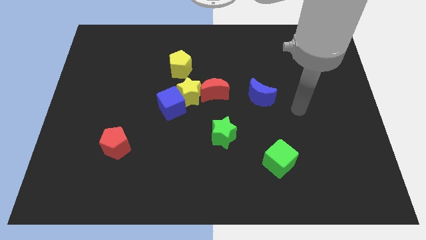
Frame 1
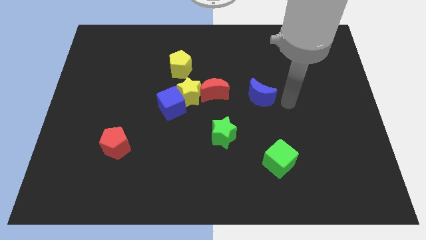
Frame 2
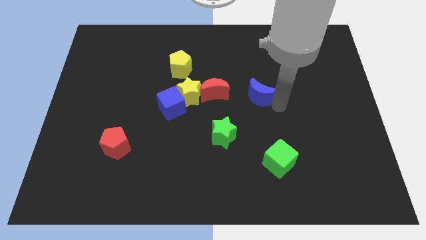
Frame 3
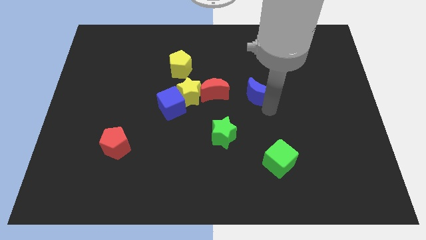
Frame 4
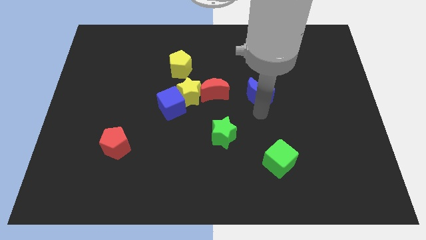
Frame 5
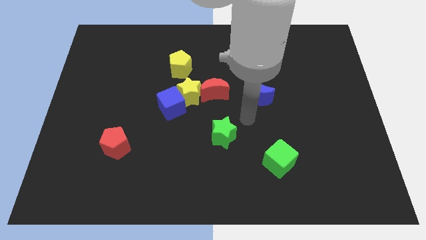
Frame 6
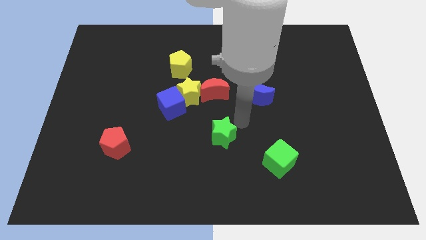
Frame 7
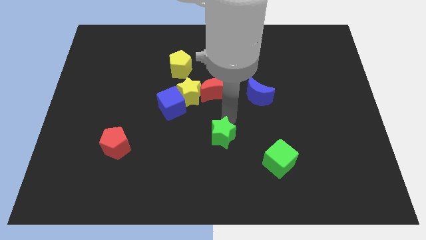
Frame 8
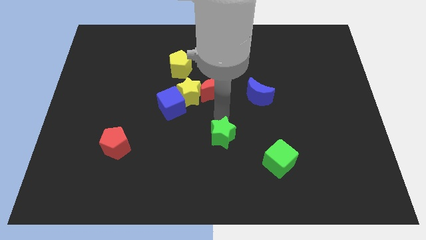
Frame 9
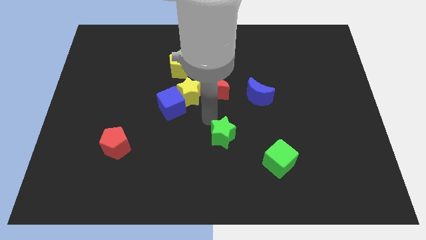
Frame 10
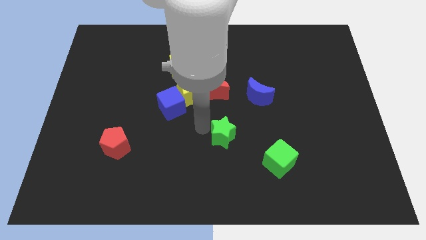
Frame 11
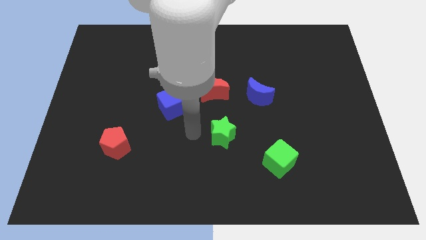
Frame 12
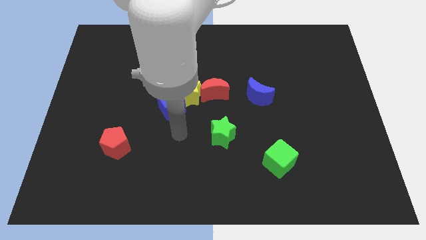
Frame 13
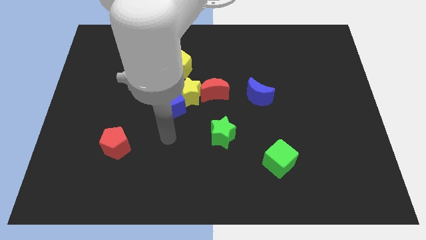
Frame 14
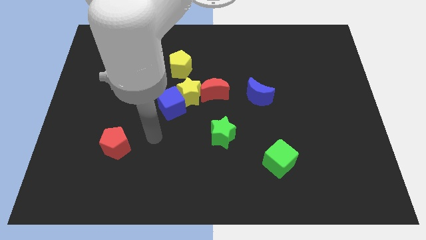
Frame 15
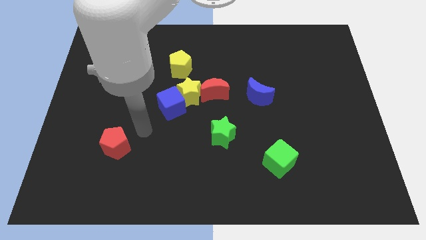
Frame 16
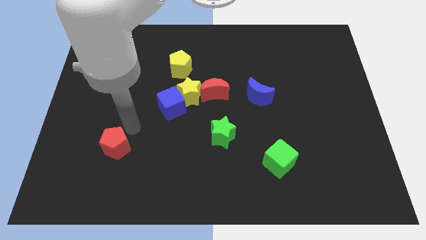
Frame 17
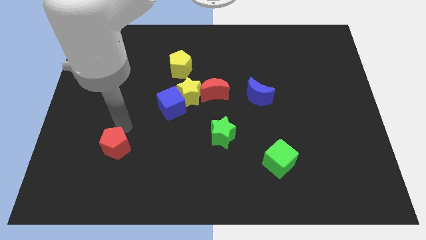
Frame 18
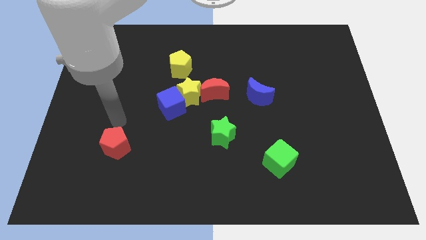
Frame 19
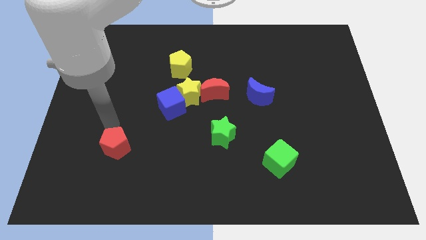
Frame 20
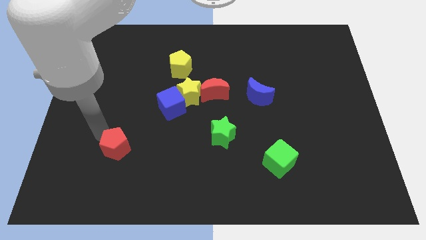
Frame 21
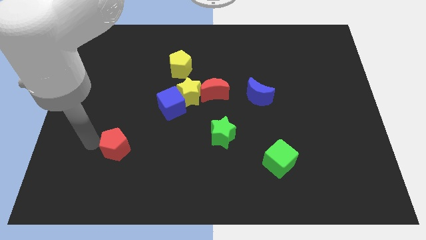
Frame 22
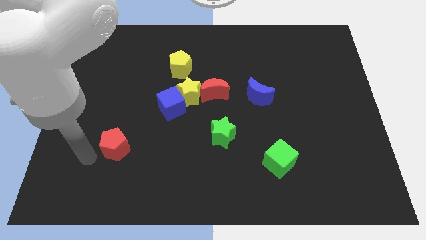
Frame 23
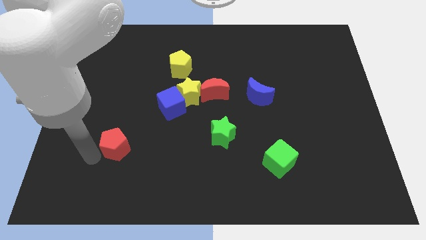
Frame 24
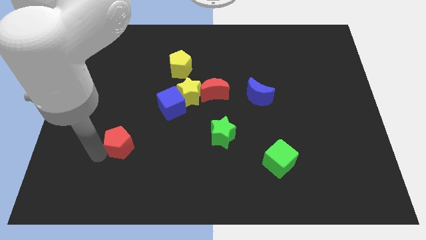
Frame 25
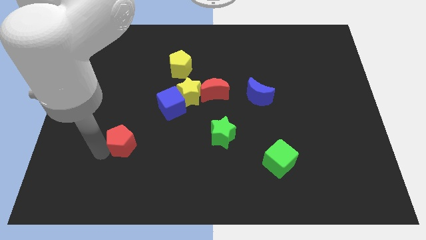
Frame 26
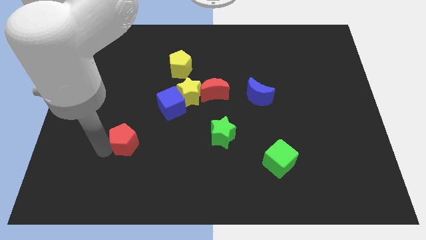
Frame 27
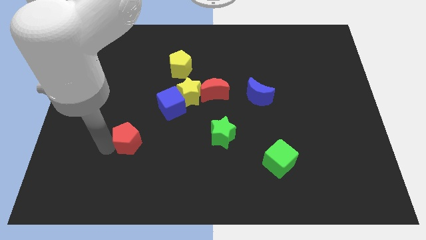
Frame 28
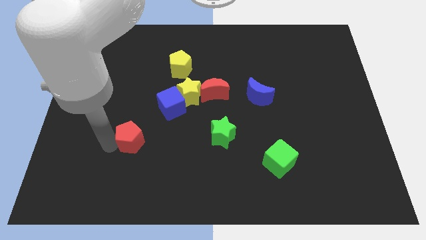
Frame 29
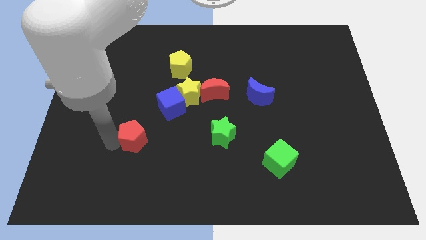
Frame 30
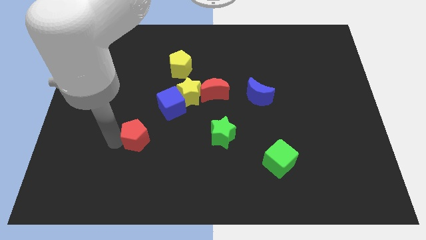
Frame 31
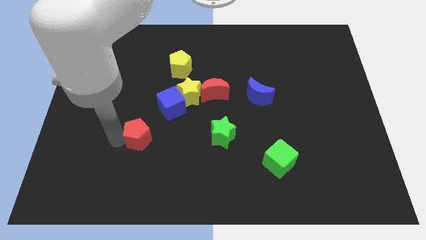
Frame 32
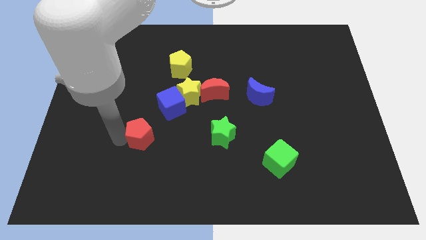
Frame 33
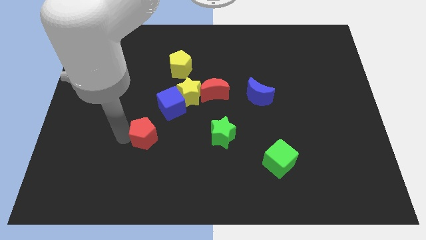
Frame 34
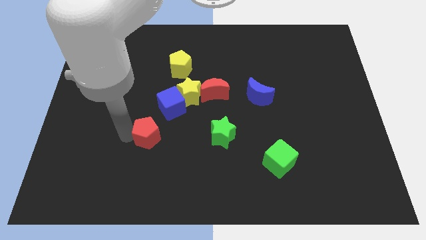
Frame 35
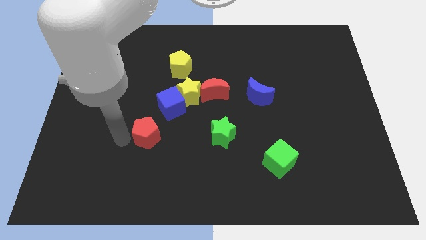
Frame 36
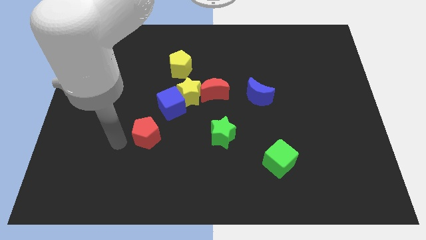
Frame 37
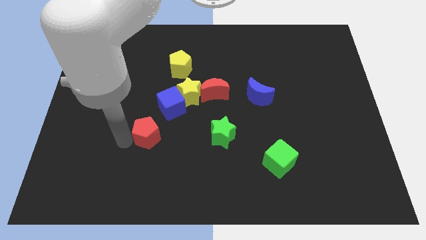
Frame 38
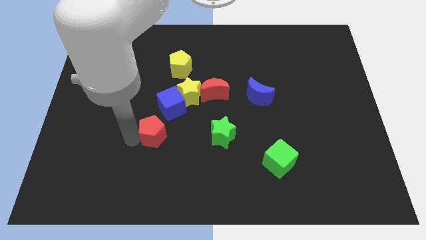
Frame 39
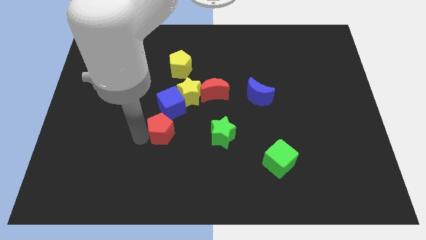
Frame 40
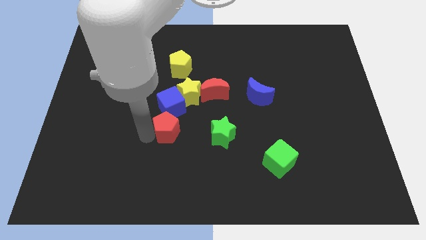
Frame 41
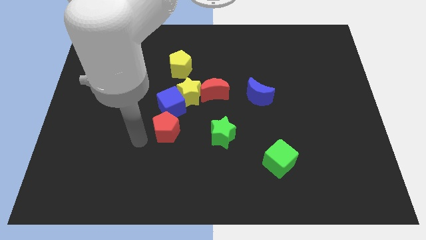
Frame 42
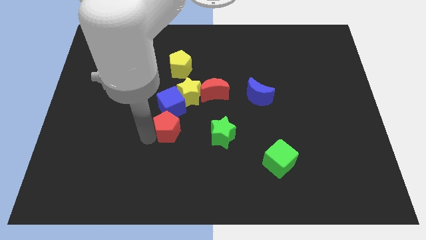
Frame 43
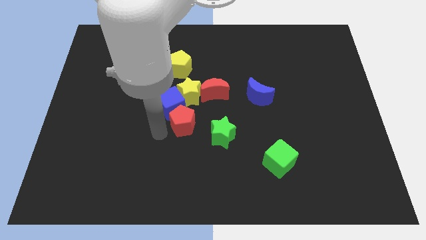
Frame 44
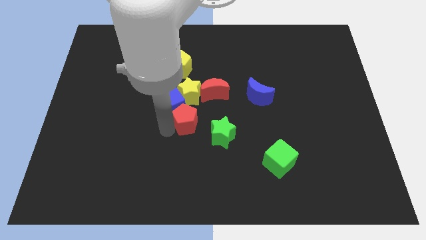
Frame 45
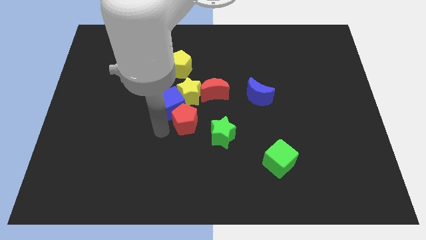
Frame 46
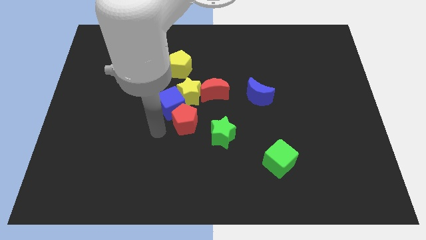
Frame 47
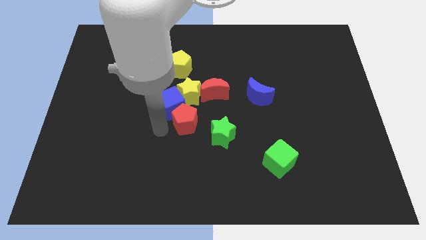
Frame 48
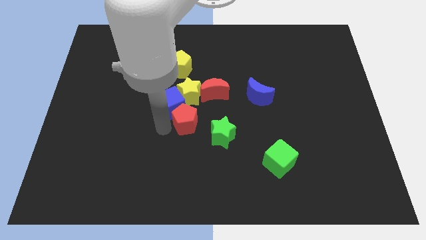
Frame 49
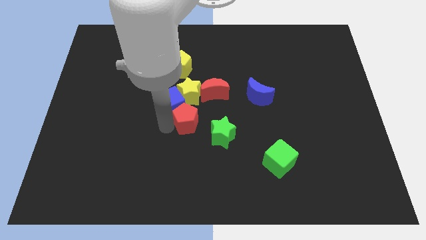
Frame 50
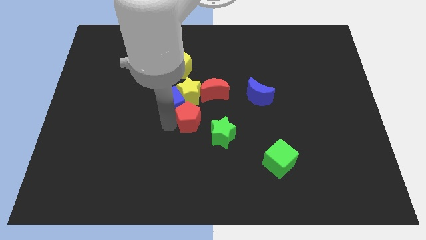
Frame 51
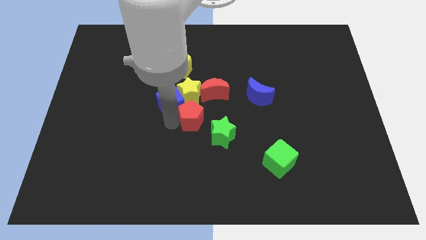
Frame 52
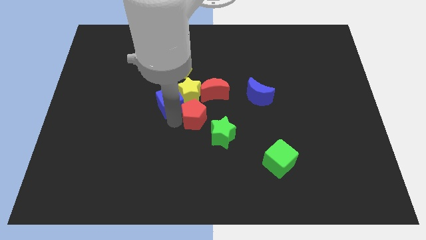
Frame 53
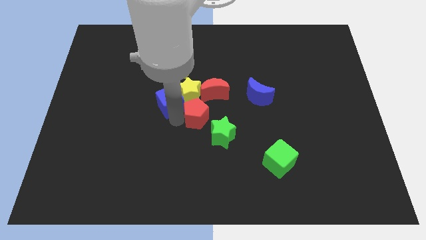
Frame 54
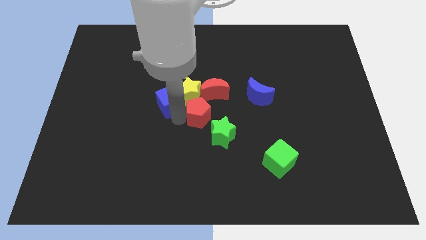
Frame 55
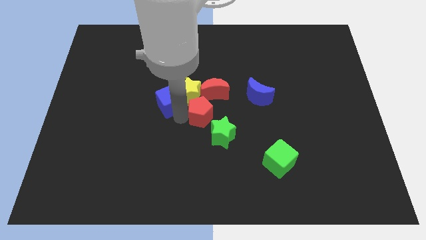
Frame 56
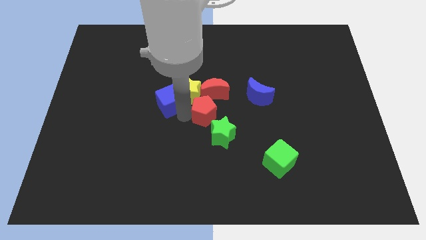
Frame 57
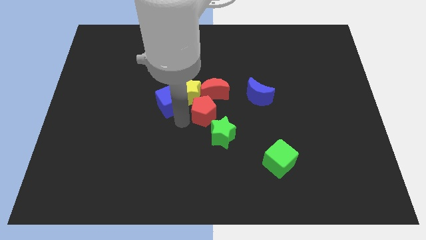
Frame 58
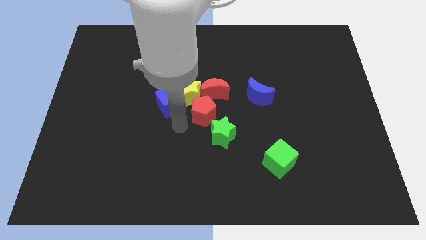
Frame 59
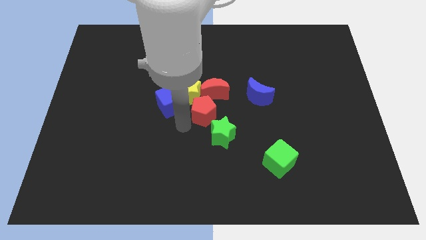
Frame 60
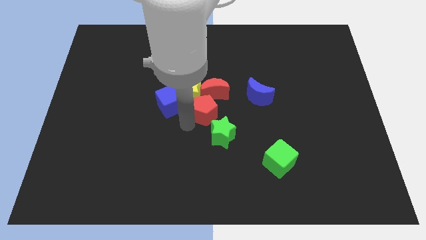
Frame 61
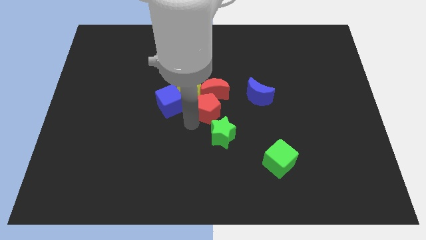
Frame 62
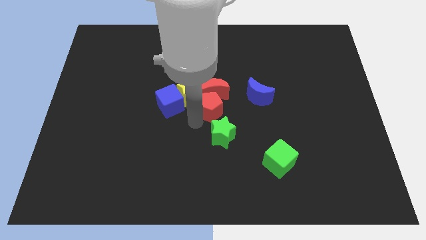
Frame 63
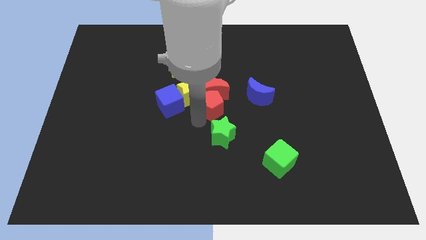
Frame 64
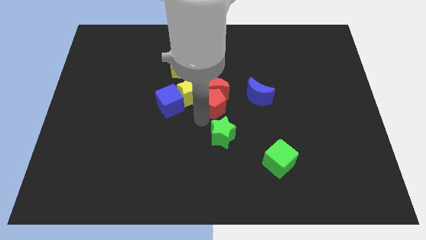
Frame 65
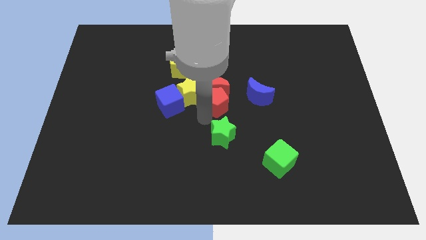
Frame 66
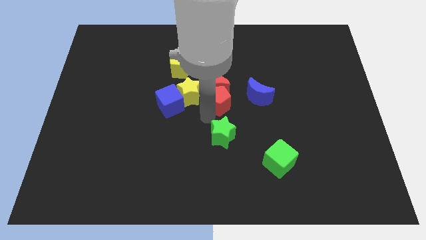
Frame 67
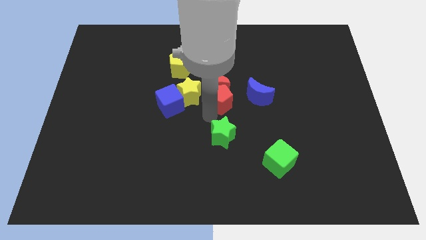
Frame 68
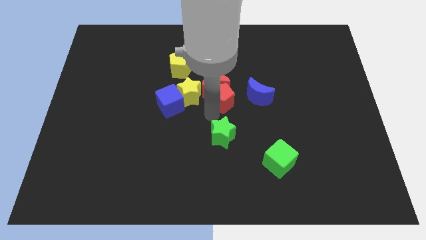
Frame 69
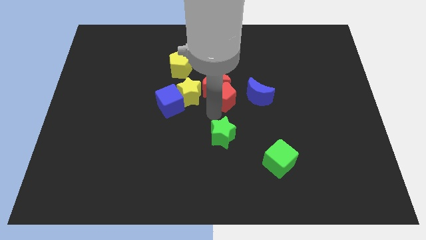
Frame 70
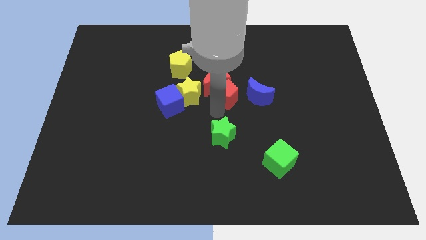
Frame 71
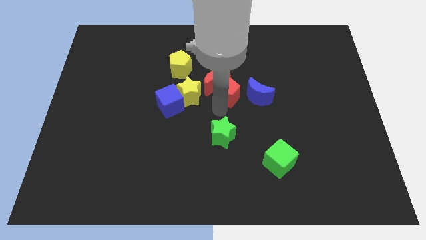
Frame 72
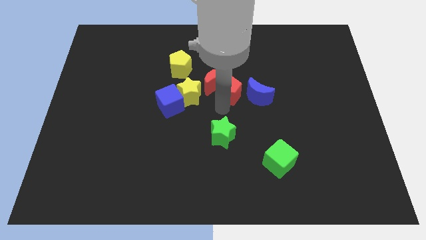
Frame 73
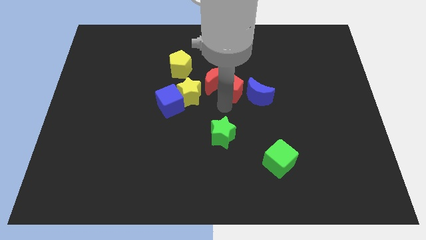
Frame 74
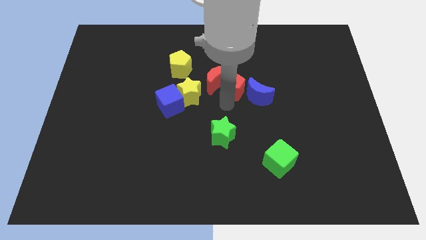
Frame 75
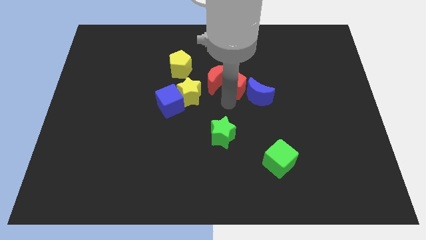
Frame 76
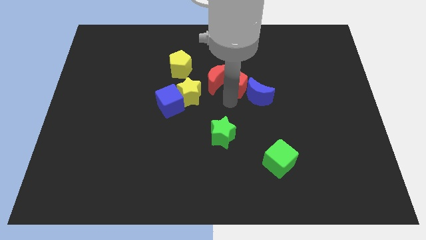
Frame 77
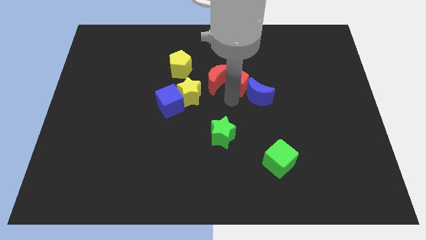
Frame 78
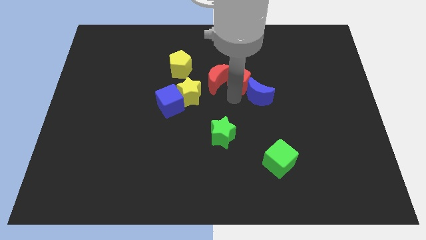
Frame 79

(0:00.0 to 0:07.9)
push the red pentagon above the blue moon
